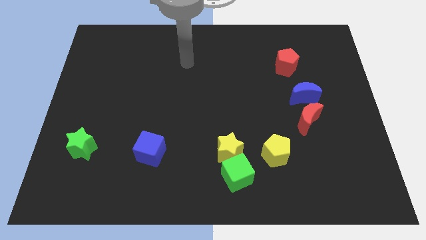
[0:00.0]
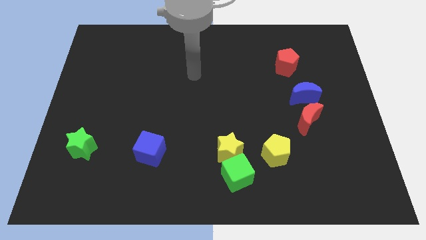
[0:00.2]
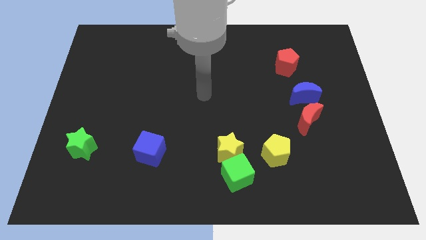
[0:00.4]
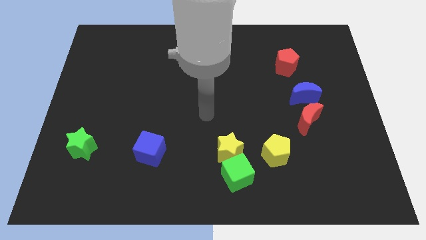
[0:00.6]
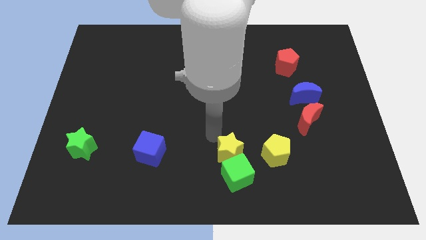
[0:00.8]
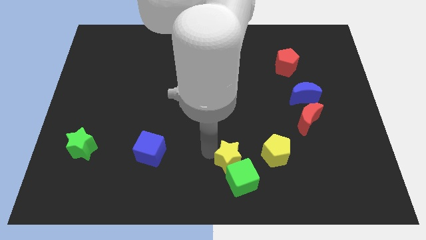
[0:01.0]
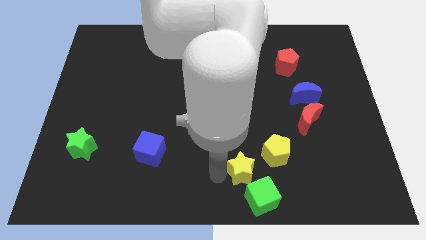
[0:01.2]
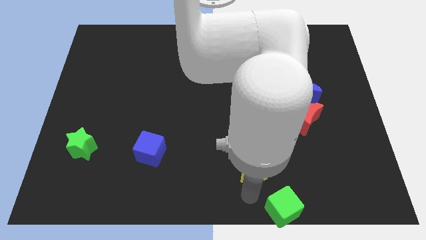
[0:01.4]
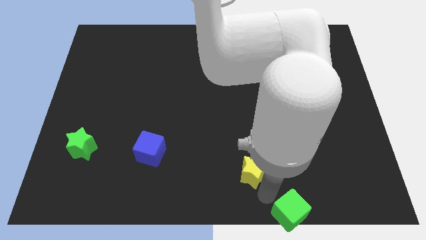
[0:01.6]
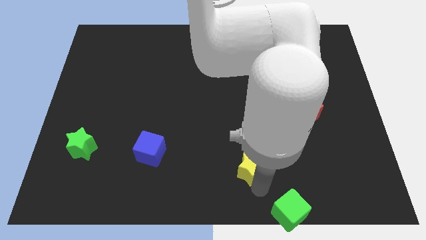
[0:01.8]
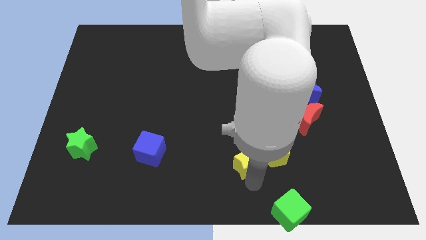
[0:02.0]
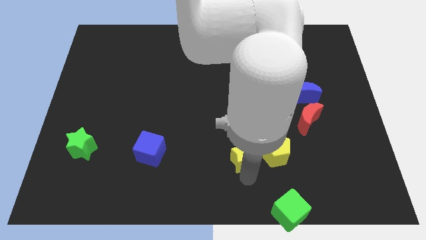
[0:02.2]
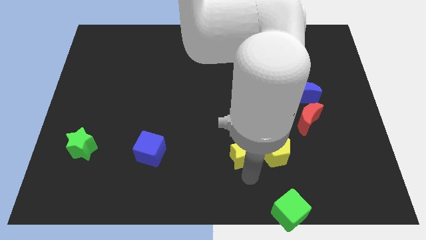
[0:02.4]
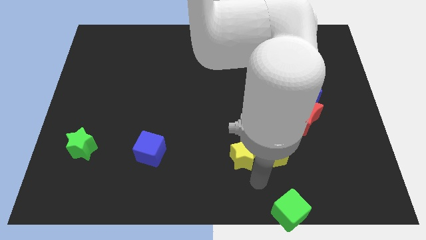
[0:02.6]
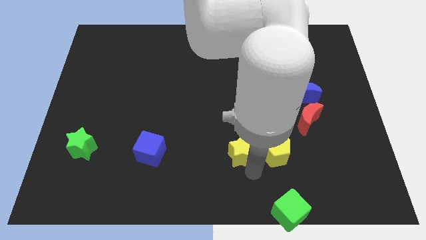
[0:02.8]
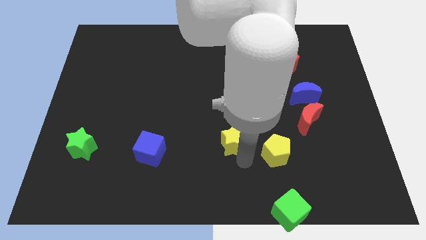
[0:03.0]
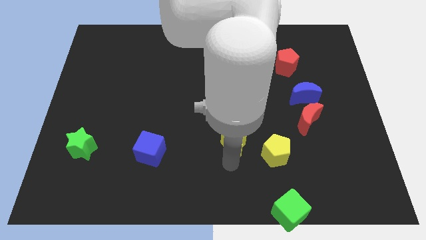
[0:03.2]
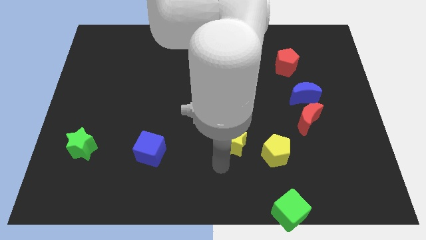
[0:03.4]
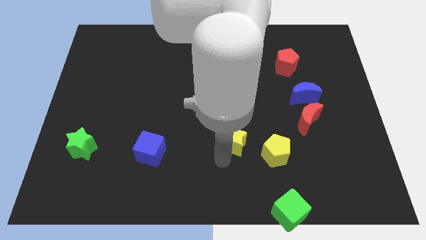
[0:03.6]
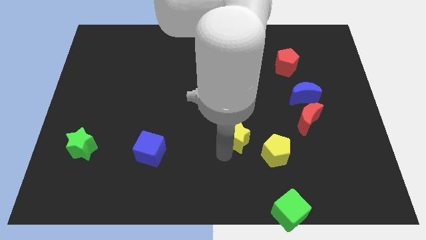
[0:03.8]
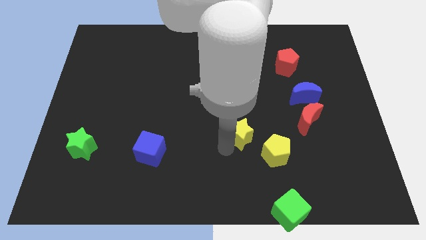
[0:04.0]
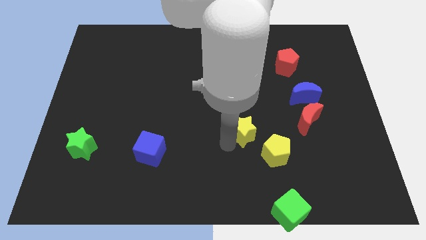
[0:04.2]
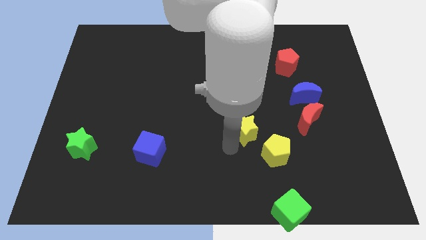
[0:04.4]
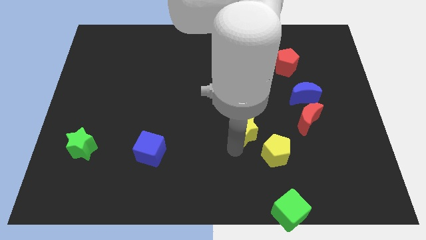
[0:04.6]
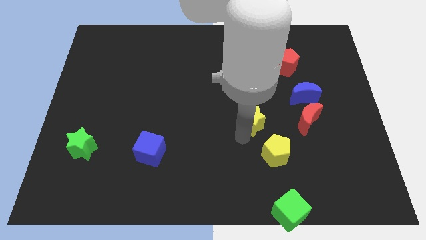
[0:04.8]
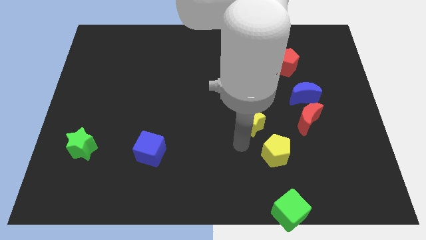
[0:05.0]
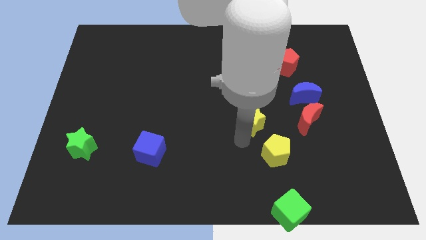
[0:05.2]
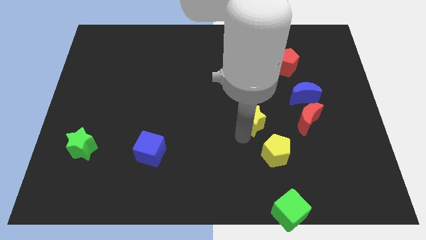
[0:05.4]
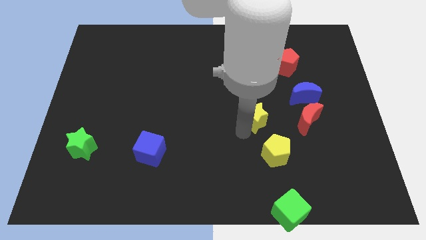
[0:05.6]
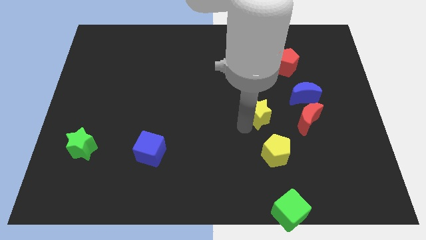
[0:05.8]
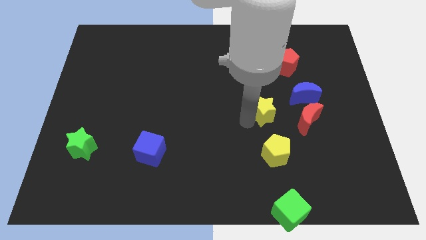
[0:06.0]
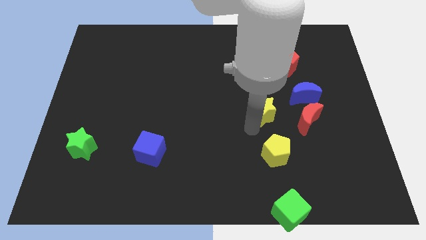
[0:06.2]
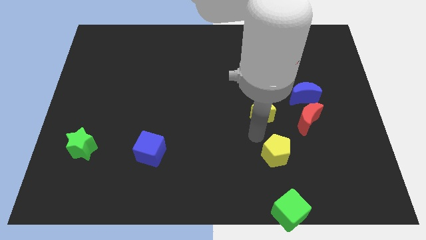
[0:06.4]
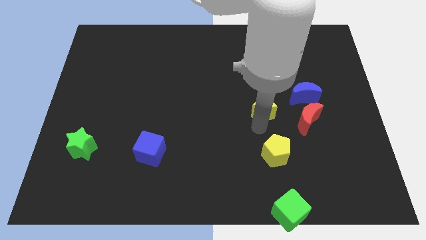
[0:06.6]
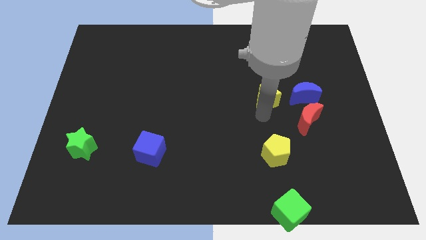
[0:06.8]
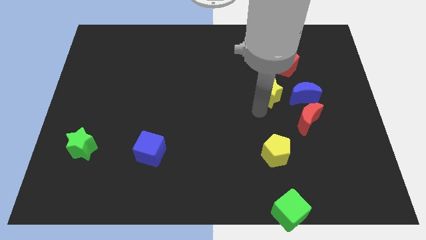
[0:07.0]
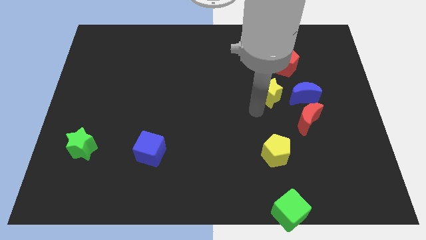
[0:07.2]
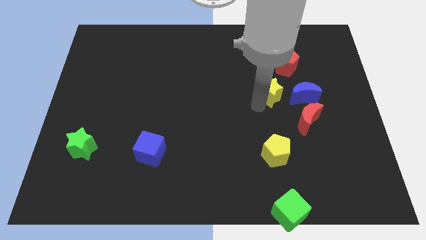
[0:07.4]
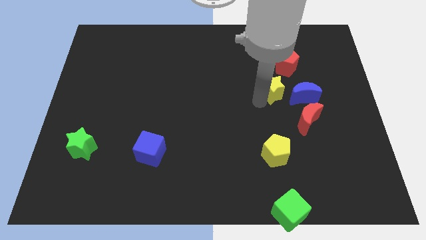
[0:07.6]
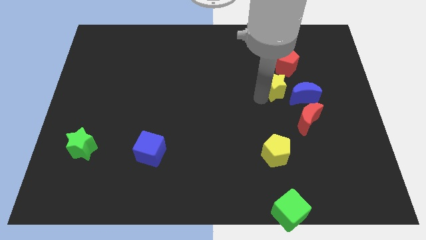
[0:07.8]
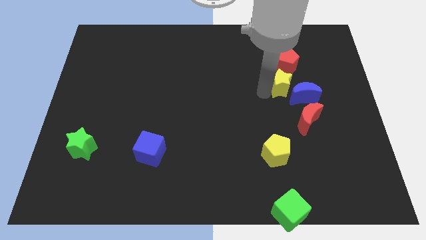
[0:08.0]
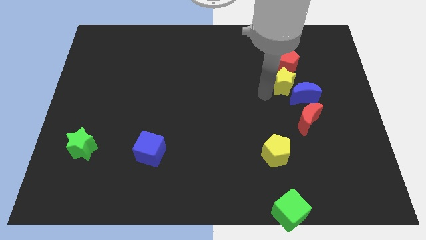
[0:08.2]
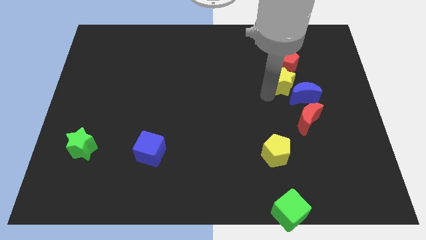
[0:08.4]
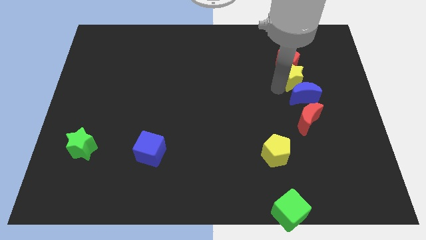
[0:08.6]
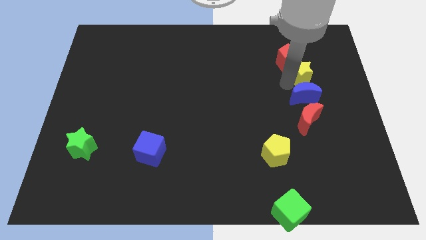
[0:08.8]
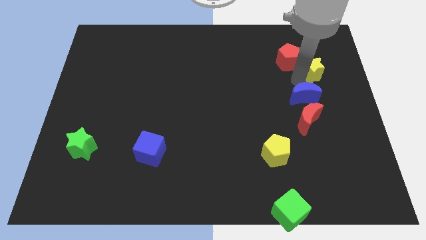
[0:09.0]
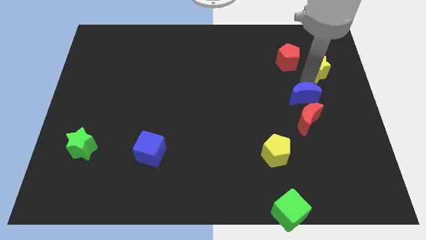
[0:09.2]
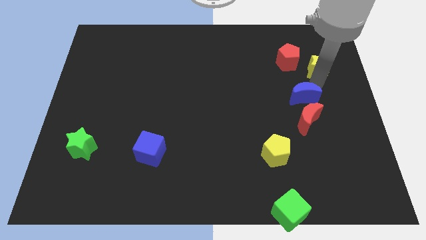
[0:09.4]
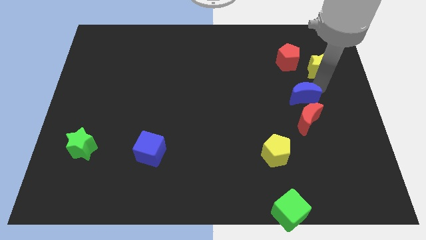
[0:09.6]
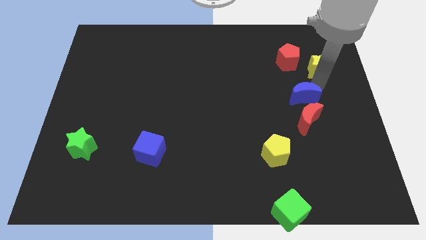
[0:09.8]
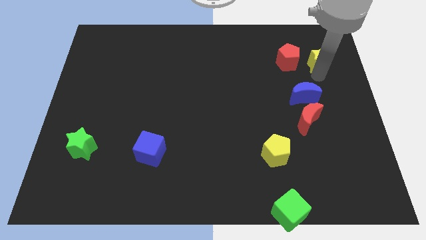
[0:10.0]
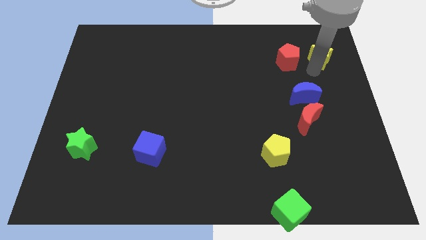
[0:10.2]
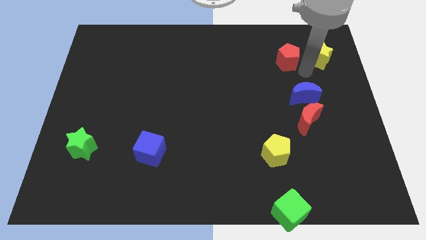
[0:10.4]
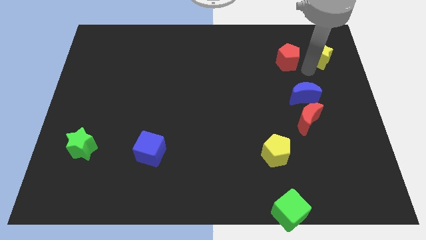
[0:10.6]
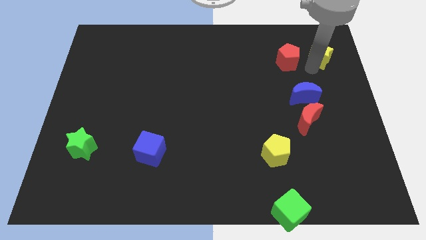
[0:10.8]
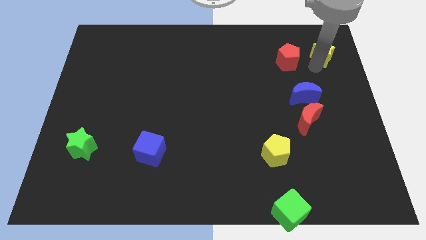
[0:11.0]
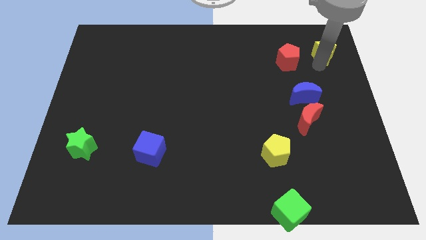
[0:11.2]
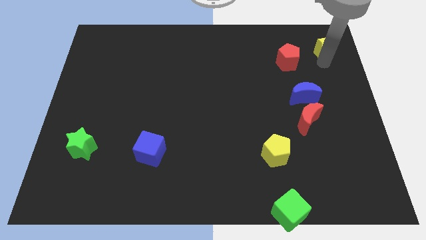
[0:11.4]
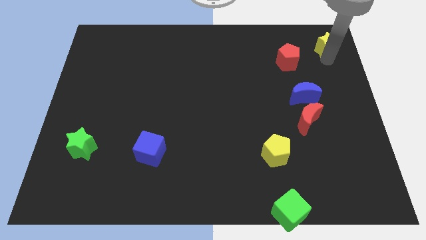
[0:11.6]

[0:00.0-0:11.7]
slide the yellow star to the top right

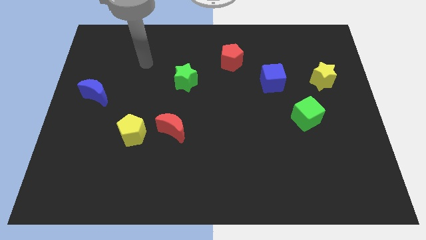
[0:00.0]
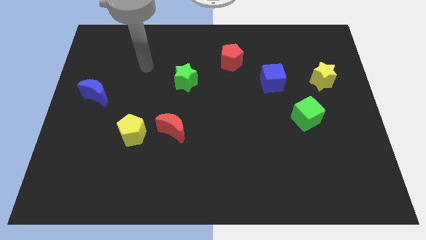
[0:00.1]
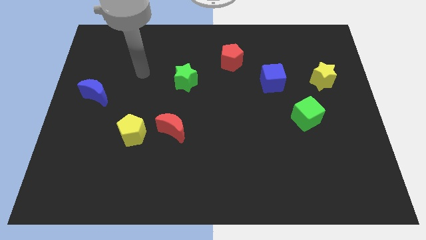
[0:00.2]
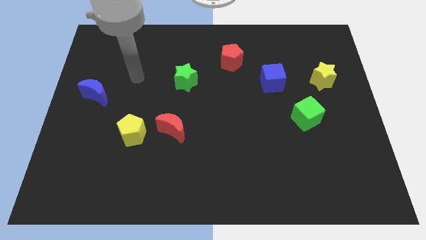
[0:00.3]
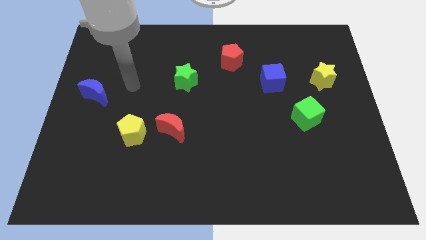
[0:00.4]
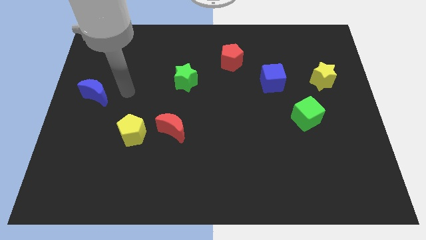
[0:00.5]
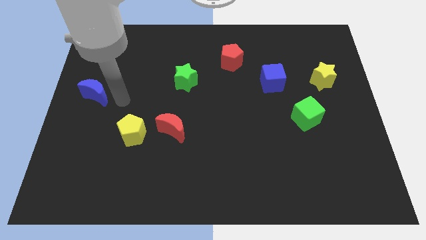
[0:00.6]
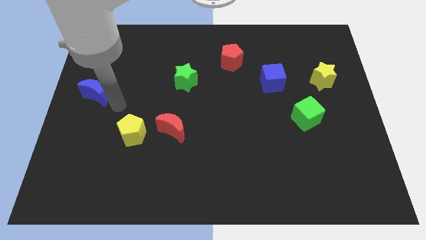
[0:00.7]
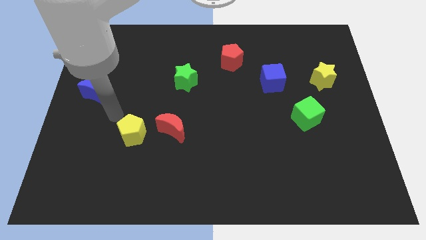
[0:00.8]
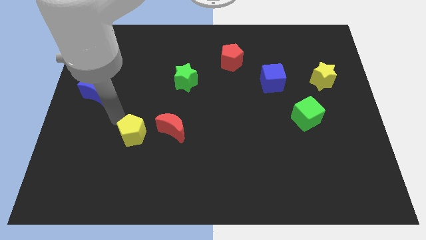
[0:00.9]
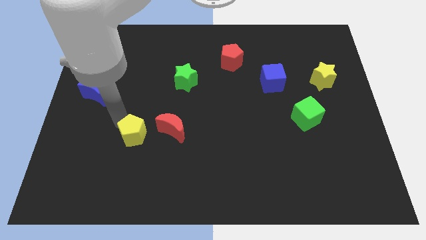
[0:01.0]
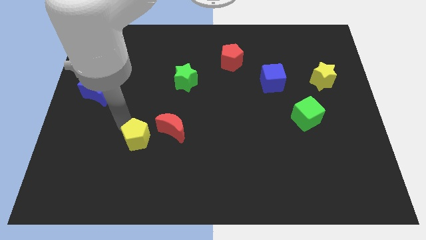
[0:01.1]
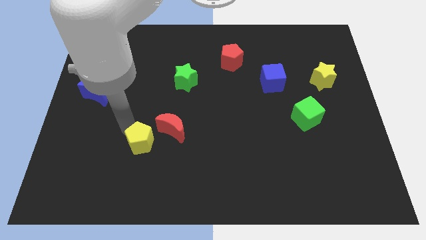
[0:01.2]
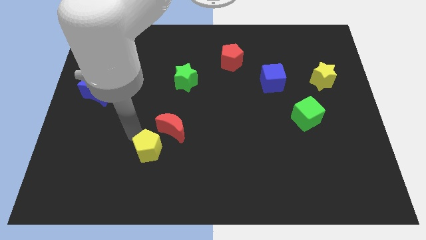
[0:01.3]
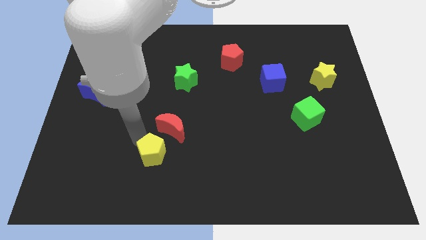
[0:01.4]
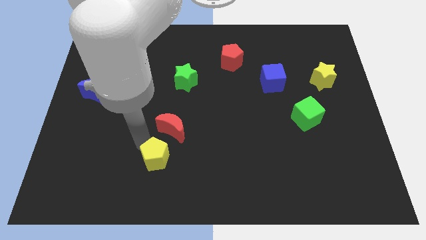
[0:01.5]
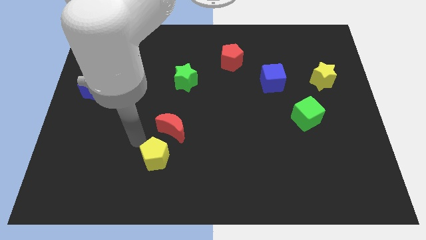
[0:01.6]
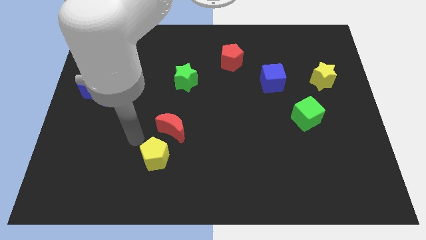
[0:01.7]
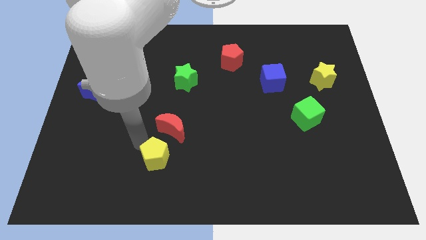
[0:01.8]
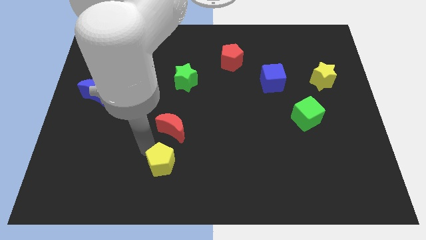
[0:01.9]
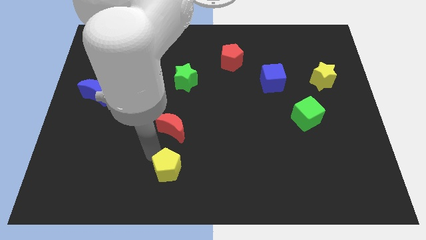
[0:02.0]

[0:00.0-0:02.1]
put the yellow pentagon to the bottom
